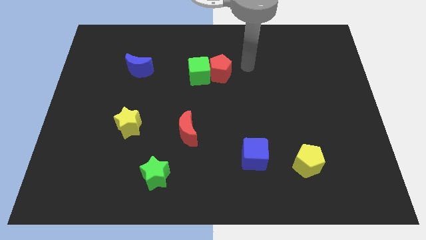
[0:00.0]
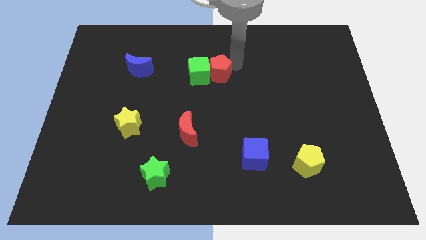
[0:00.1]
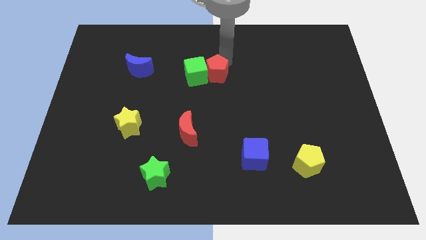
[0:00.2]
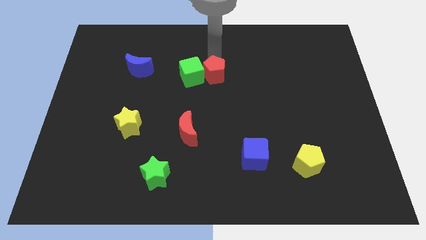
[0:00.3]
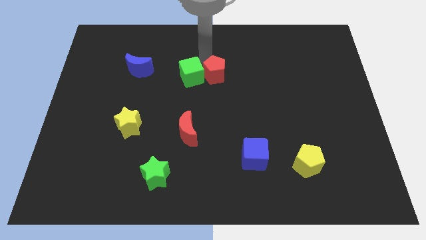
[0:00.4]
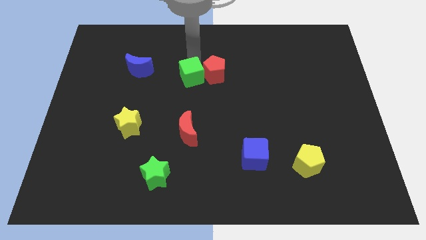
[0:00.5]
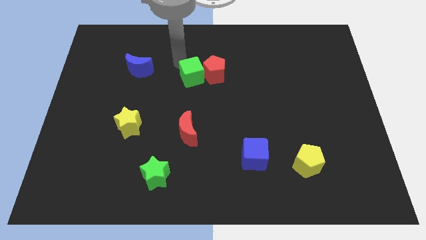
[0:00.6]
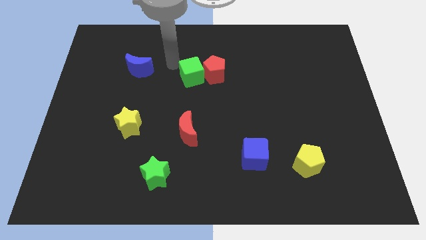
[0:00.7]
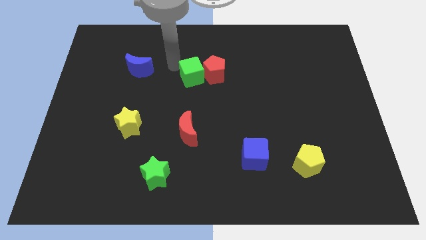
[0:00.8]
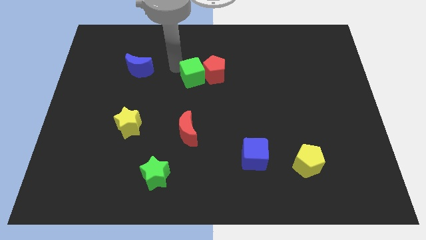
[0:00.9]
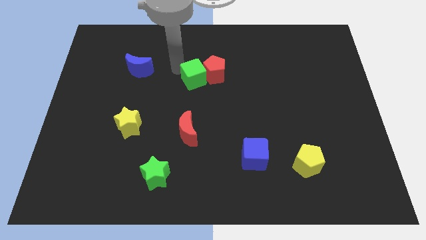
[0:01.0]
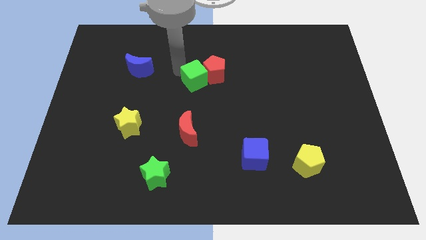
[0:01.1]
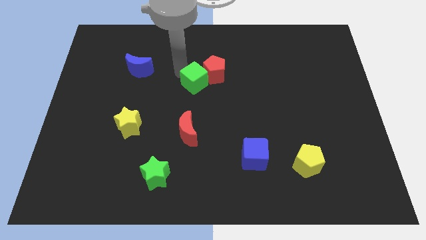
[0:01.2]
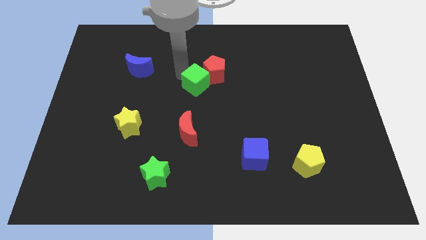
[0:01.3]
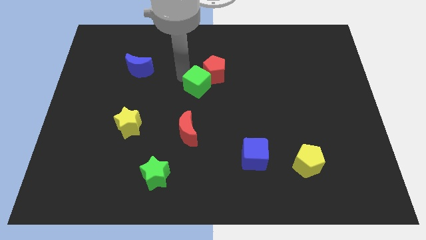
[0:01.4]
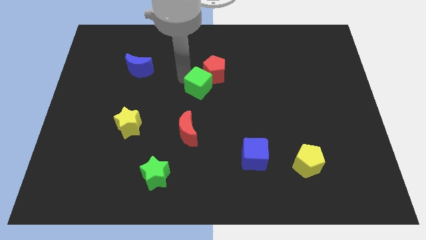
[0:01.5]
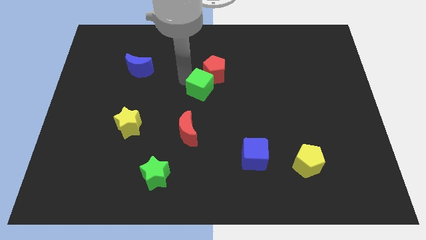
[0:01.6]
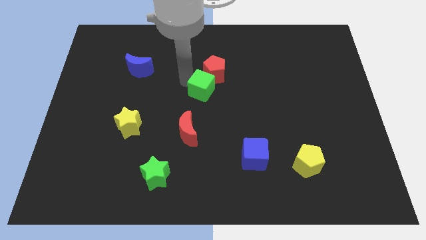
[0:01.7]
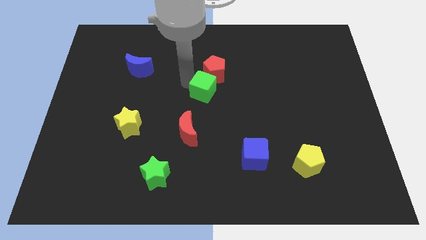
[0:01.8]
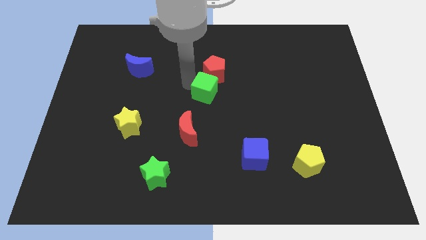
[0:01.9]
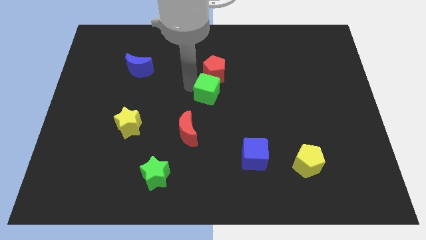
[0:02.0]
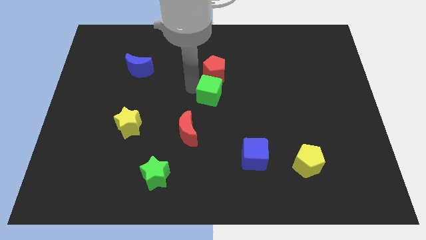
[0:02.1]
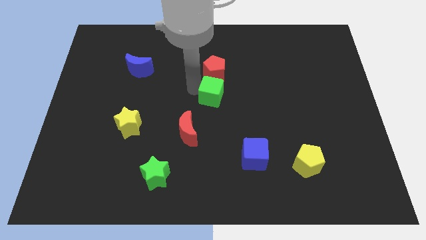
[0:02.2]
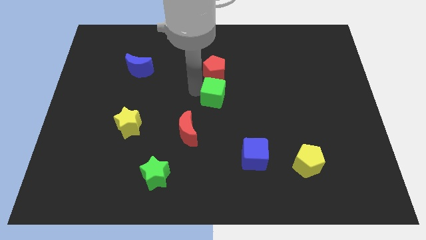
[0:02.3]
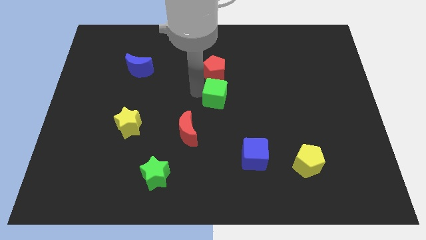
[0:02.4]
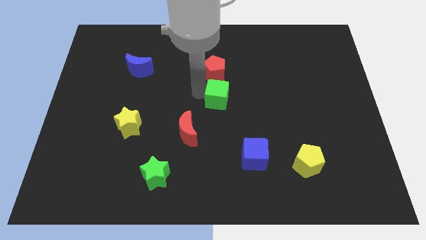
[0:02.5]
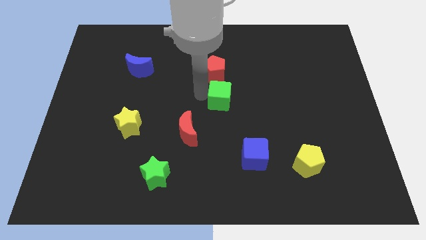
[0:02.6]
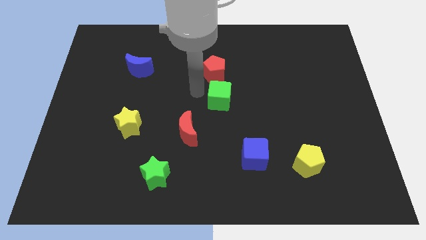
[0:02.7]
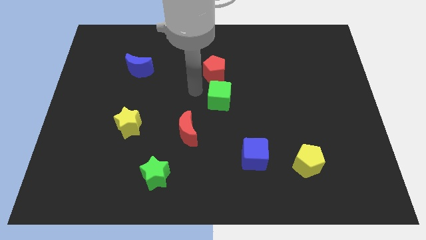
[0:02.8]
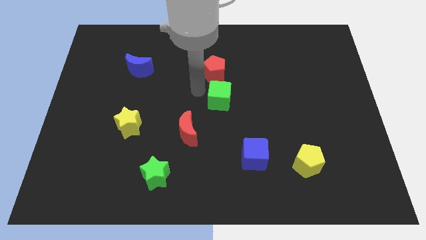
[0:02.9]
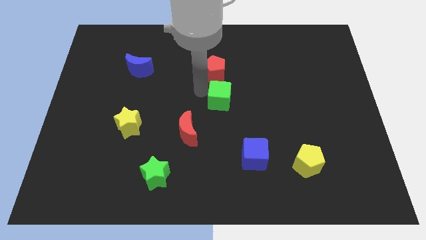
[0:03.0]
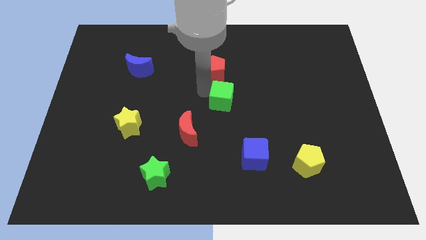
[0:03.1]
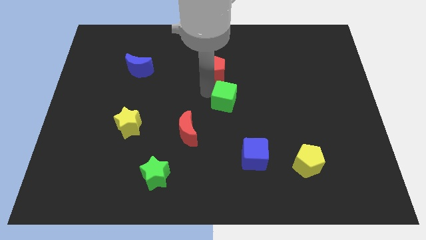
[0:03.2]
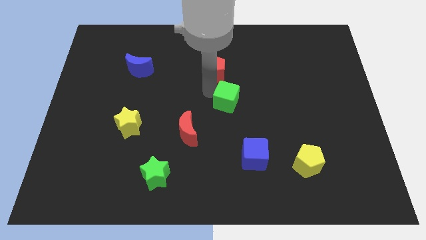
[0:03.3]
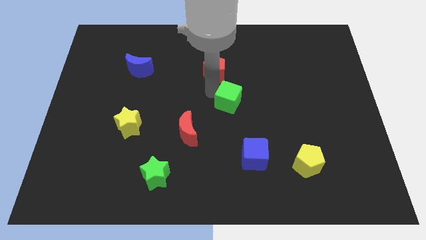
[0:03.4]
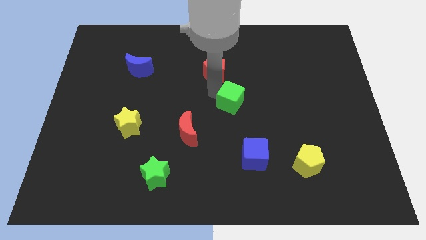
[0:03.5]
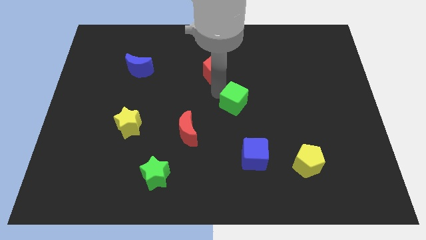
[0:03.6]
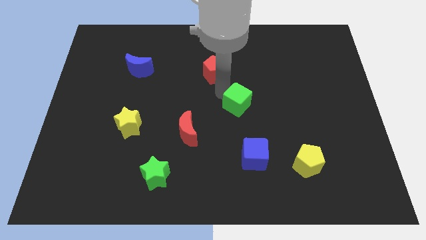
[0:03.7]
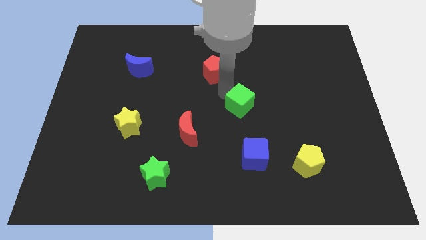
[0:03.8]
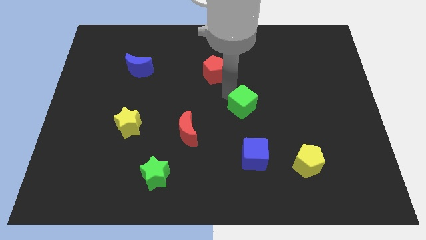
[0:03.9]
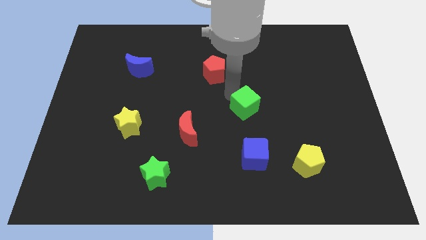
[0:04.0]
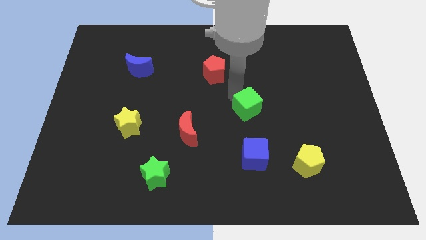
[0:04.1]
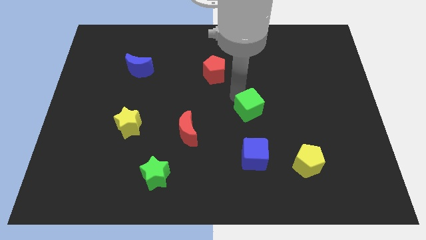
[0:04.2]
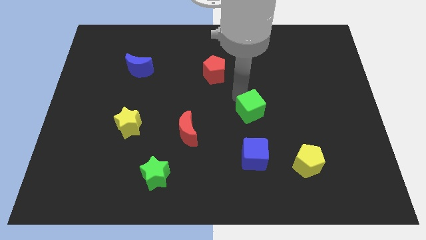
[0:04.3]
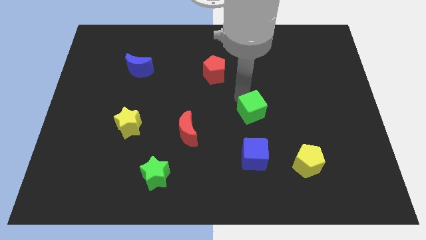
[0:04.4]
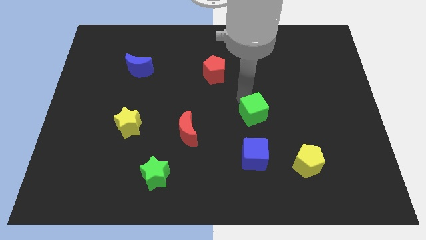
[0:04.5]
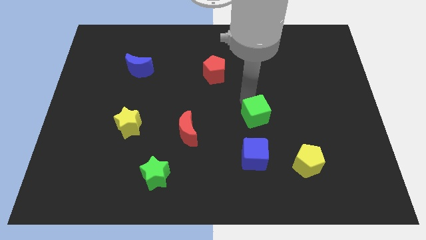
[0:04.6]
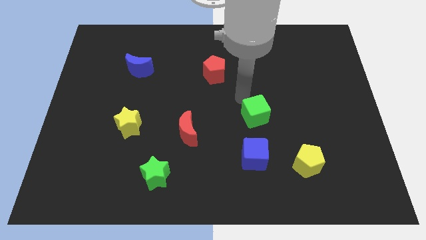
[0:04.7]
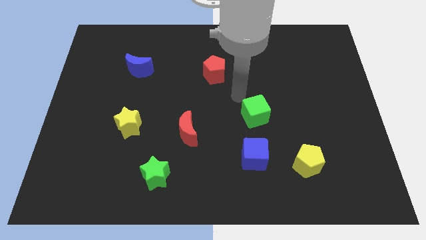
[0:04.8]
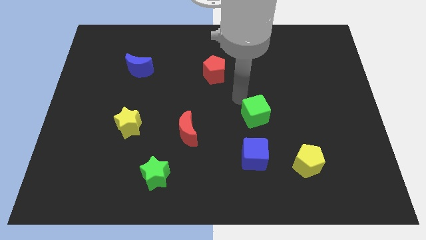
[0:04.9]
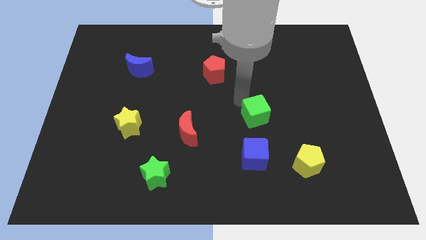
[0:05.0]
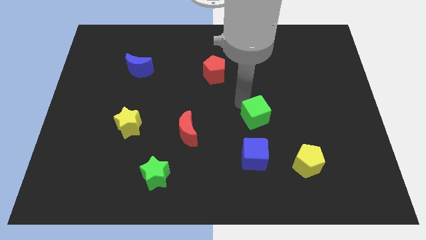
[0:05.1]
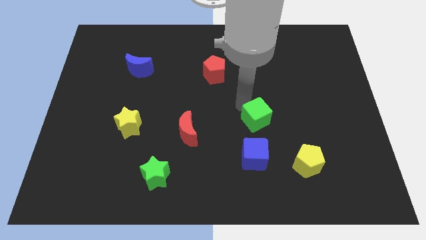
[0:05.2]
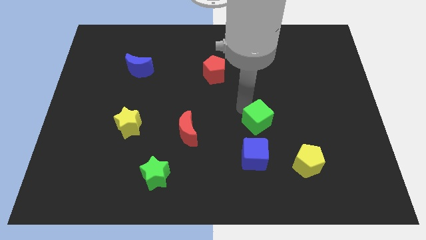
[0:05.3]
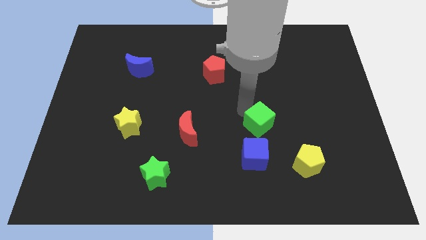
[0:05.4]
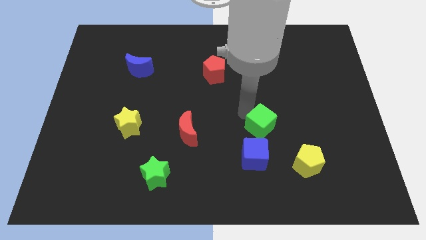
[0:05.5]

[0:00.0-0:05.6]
push the green cube diagonally up and to the right of the blue cube

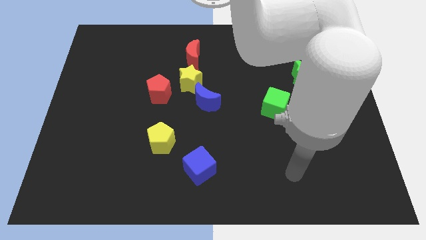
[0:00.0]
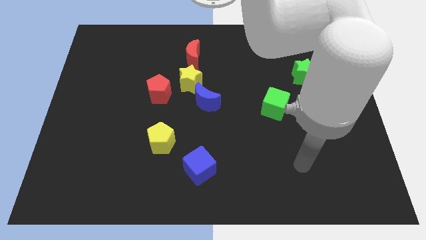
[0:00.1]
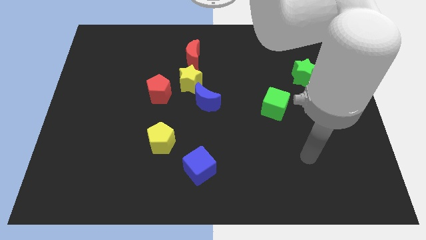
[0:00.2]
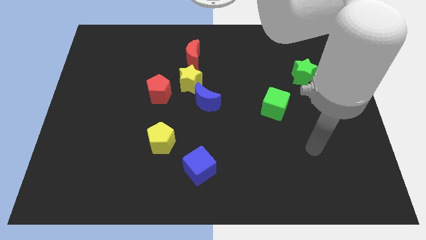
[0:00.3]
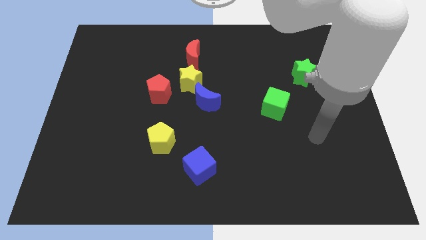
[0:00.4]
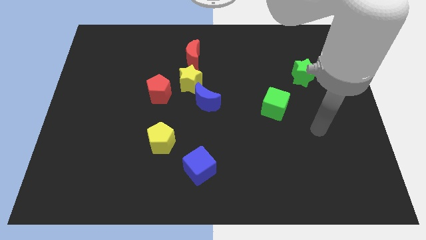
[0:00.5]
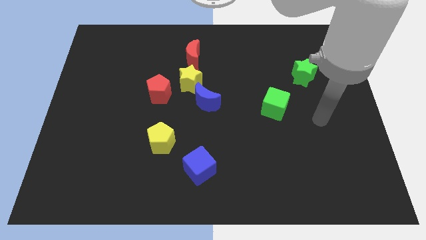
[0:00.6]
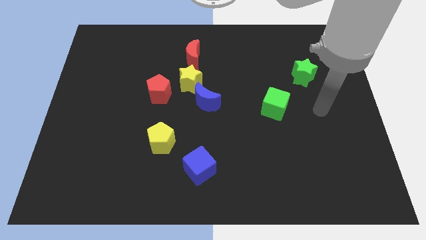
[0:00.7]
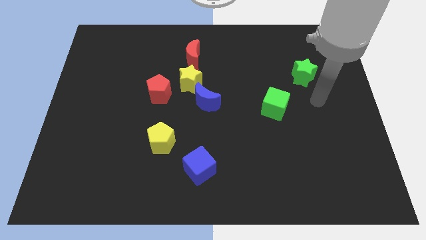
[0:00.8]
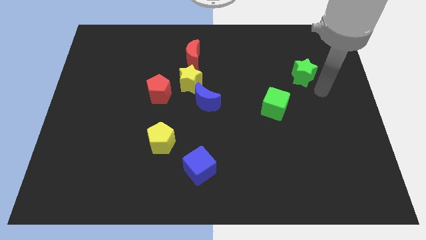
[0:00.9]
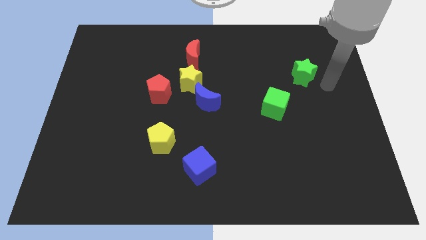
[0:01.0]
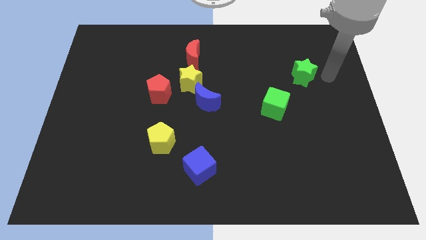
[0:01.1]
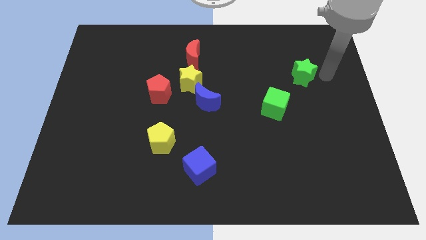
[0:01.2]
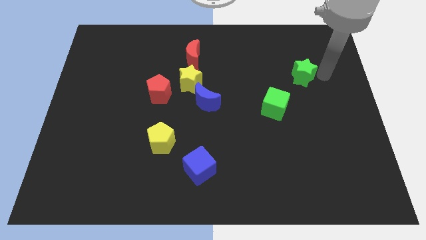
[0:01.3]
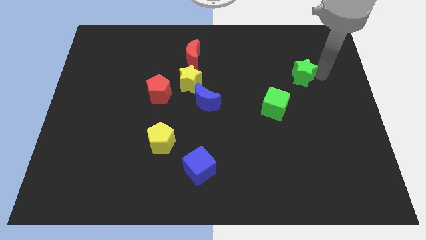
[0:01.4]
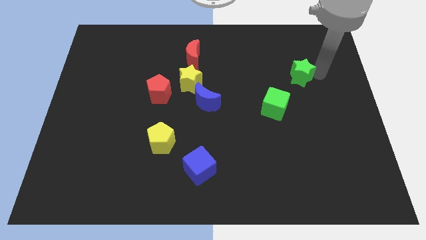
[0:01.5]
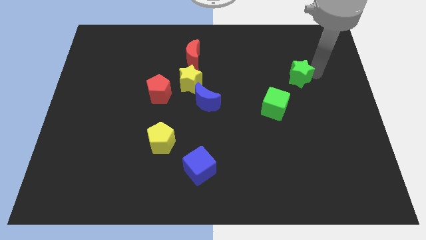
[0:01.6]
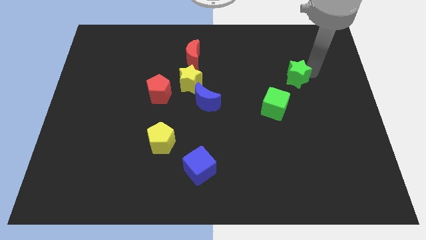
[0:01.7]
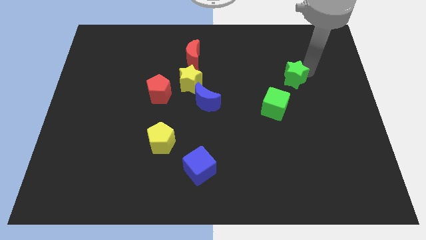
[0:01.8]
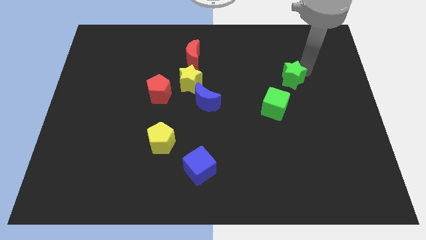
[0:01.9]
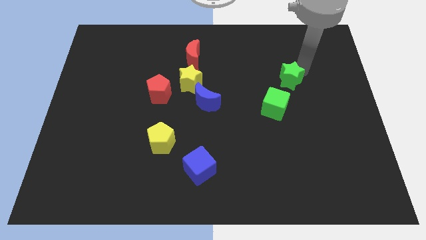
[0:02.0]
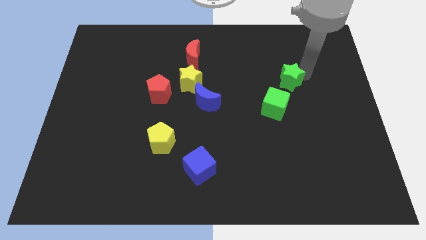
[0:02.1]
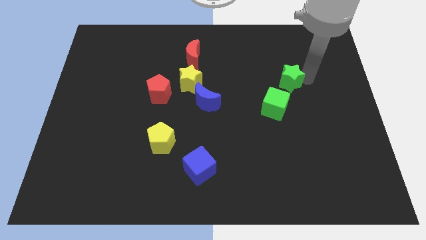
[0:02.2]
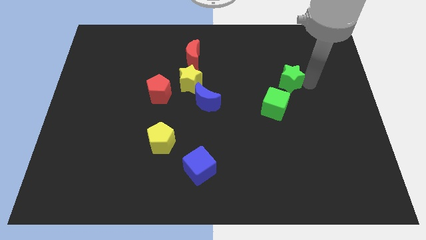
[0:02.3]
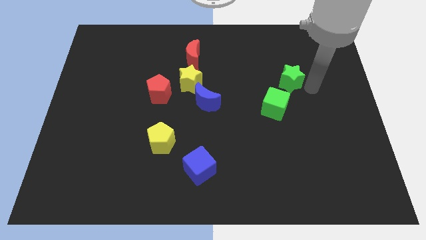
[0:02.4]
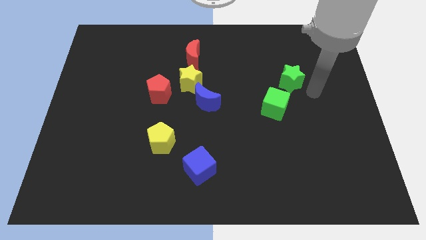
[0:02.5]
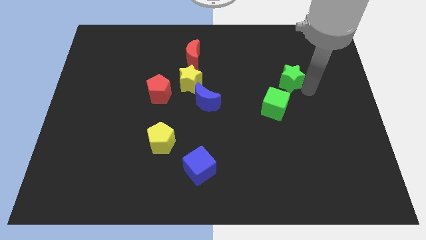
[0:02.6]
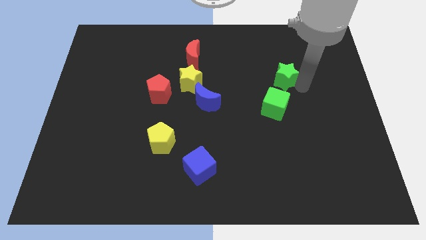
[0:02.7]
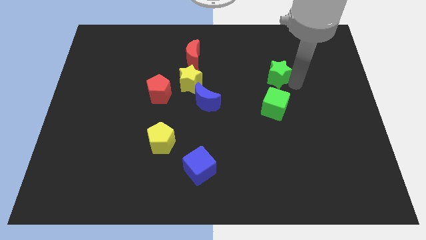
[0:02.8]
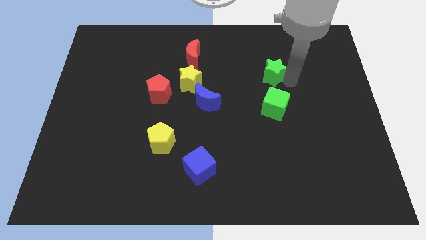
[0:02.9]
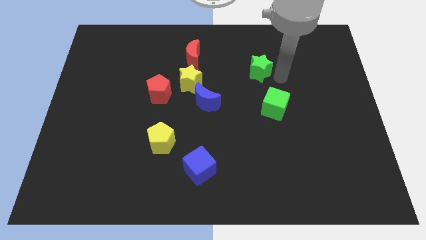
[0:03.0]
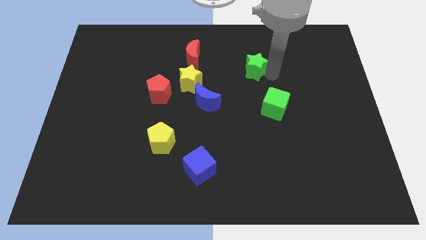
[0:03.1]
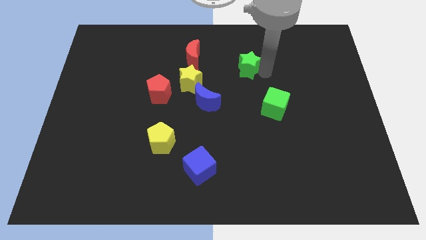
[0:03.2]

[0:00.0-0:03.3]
move the green star to the right side of the red moon
